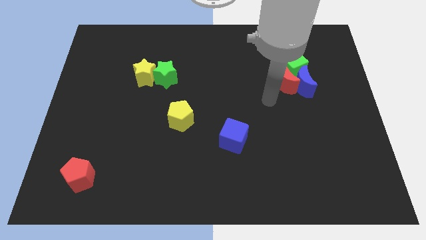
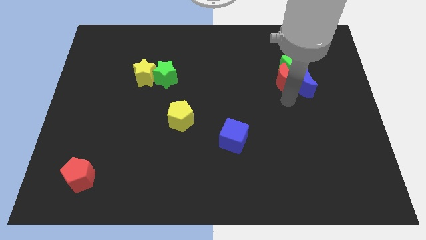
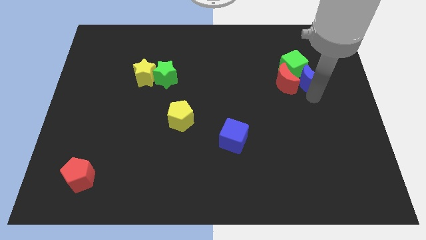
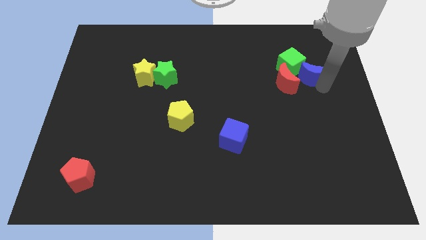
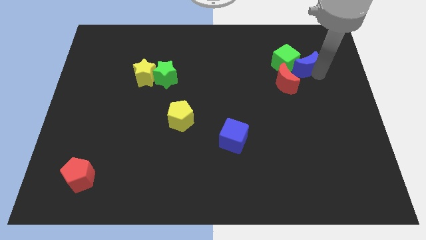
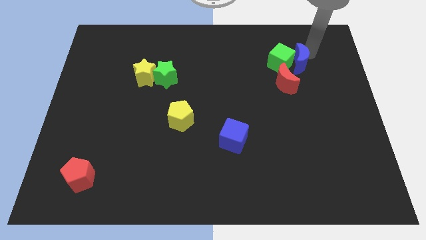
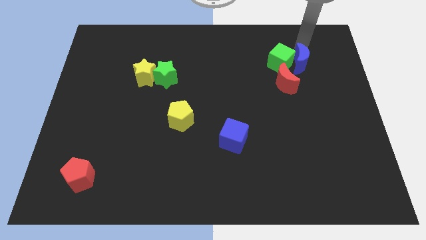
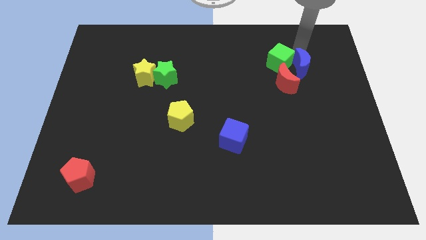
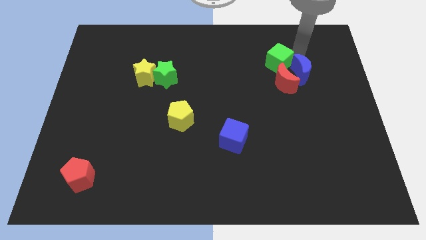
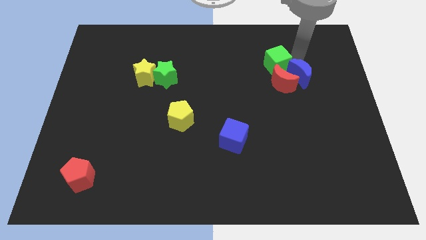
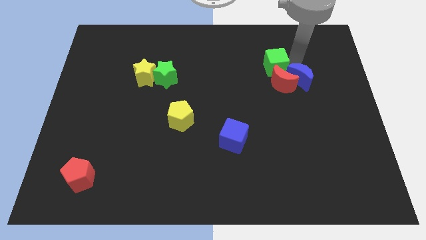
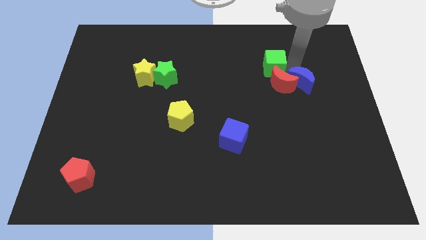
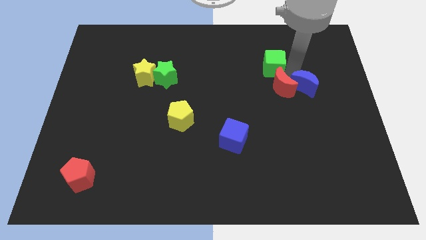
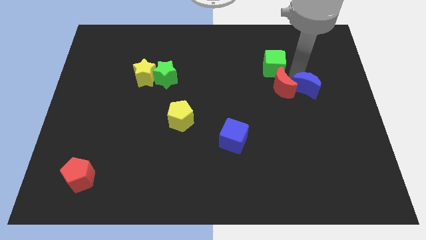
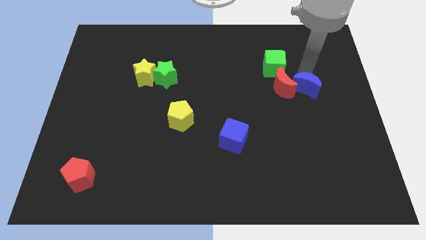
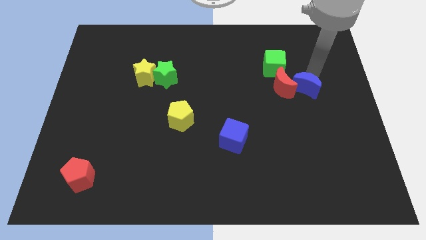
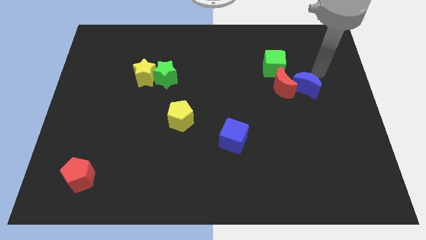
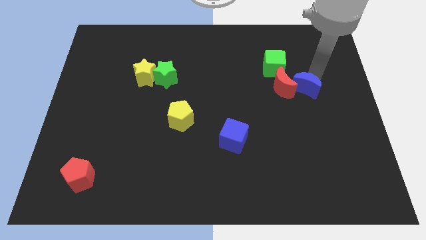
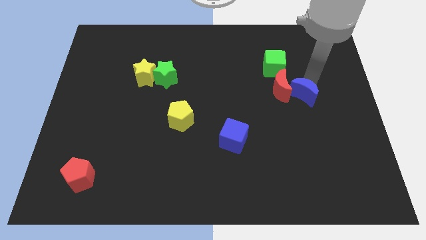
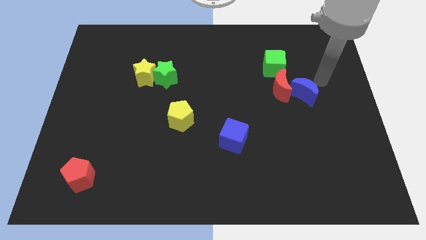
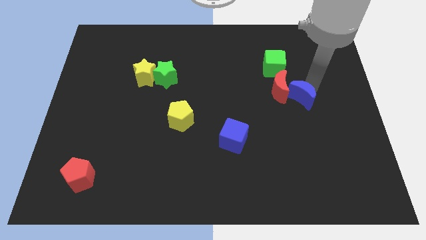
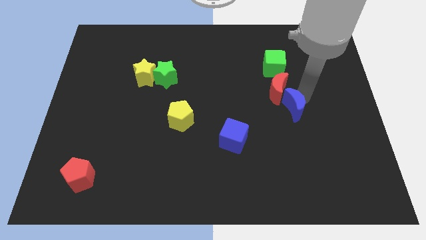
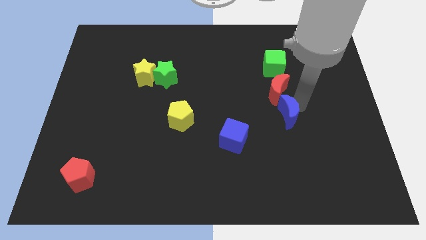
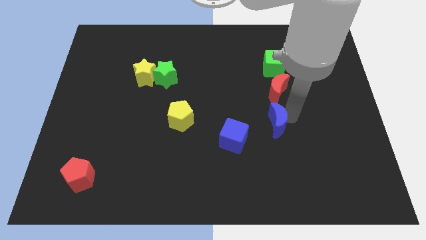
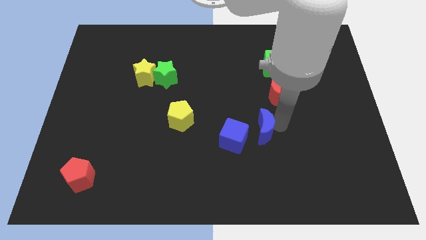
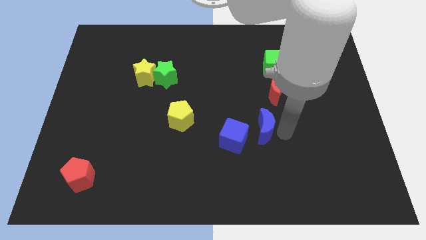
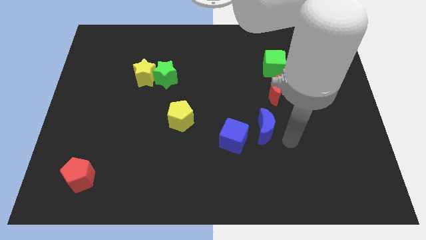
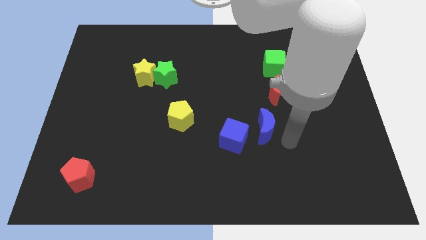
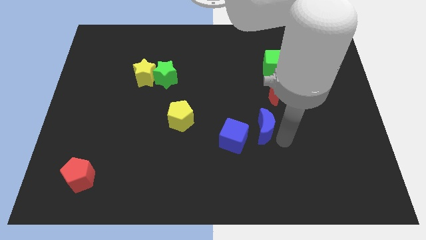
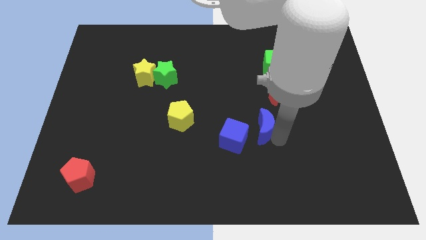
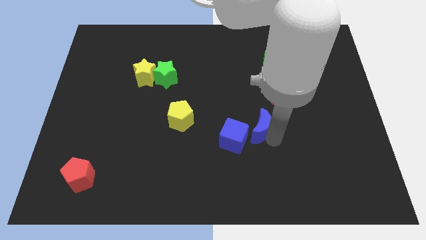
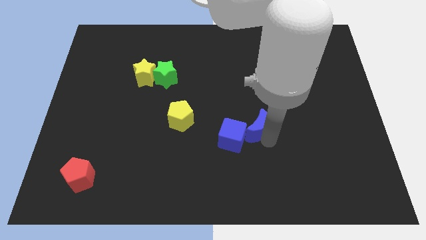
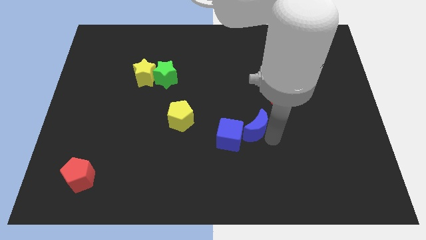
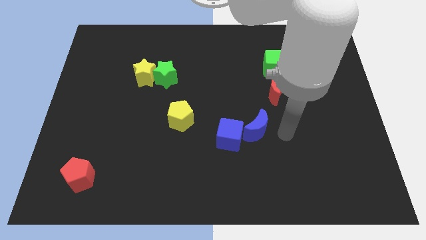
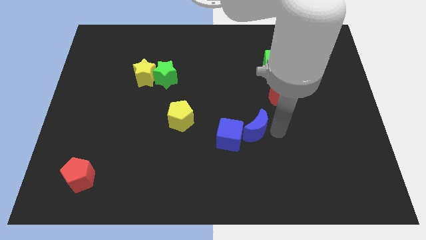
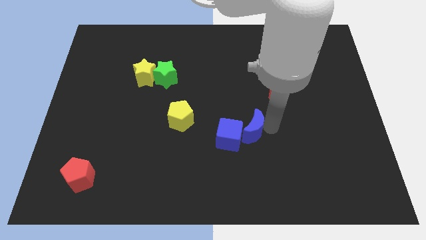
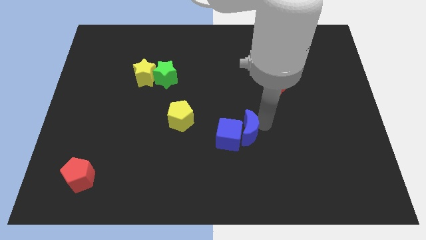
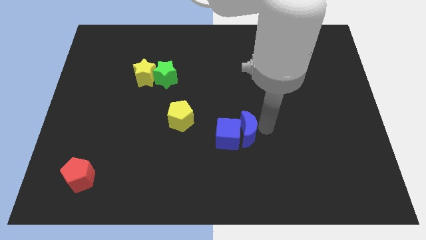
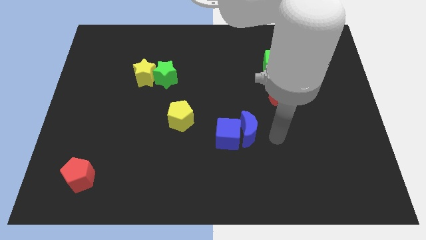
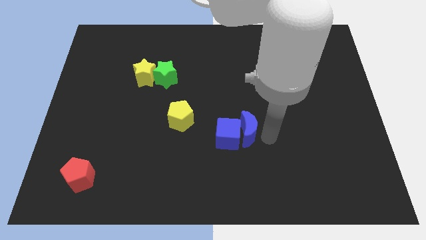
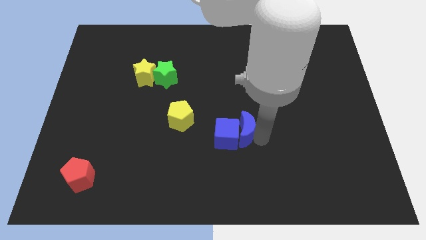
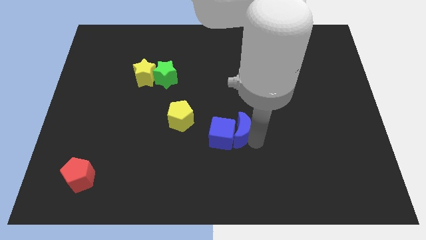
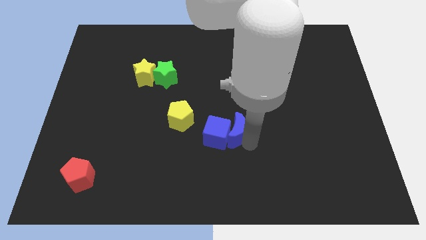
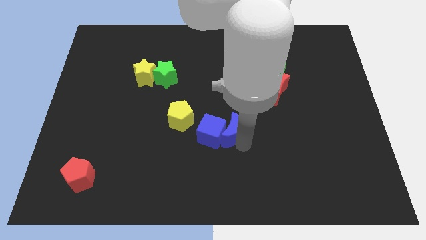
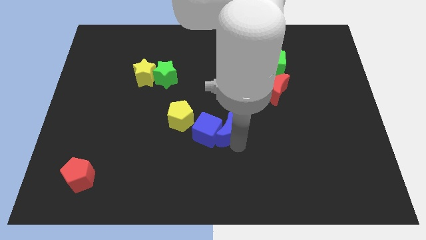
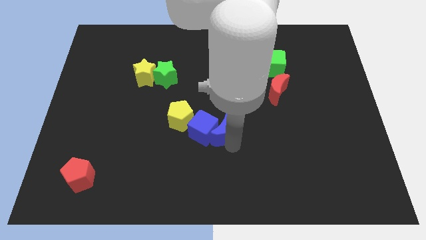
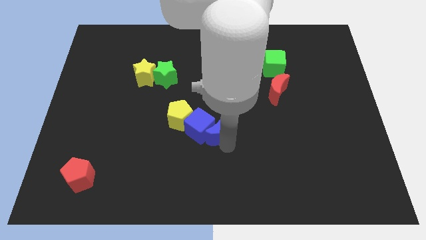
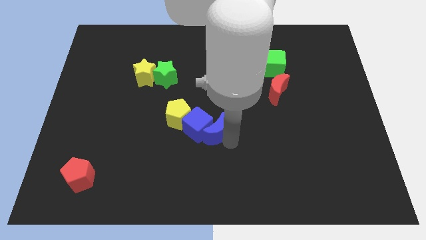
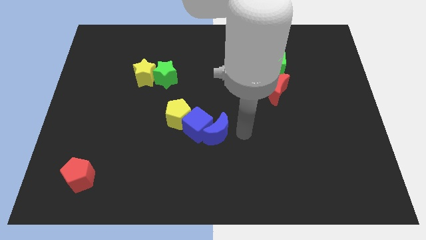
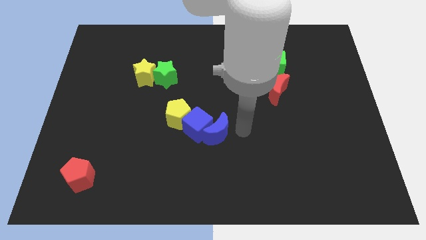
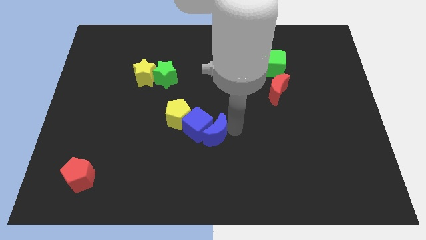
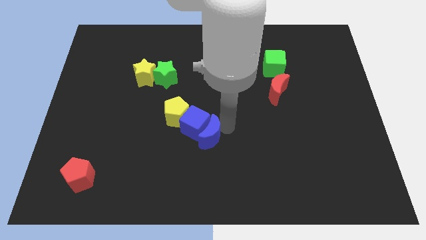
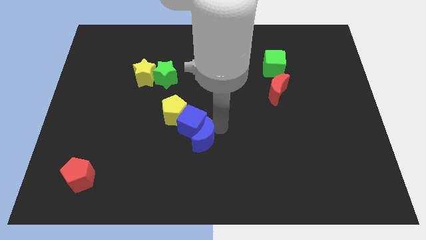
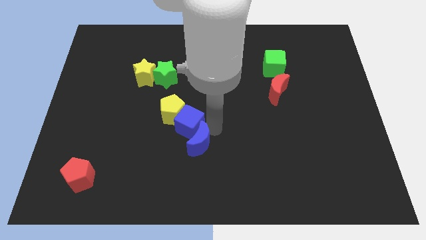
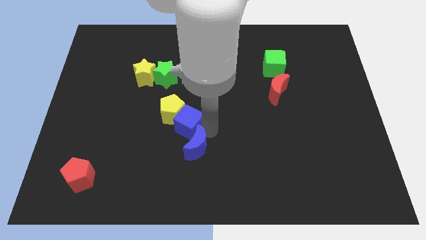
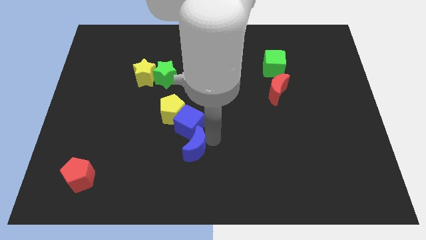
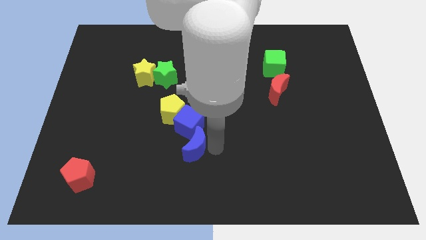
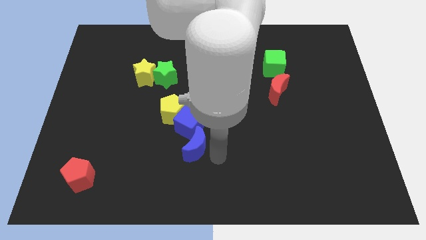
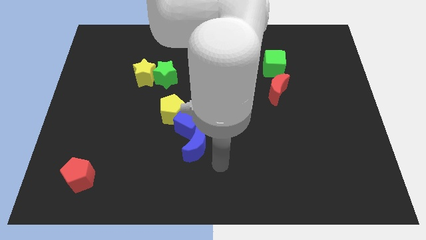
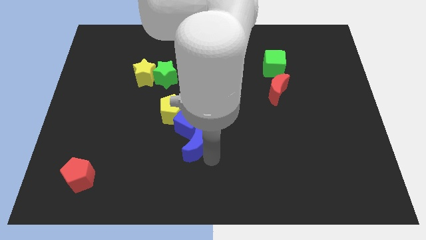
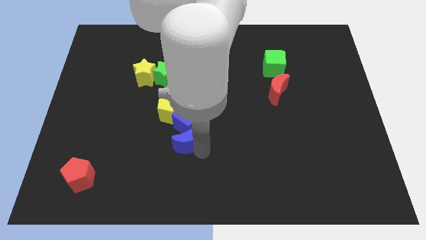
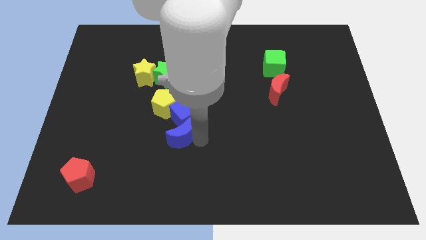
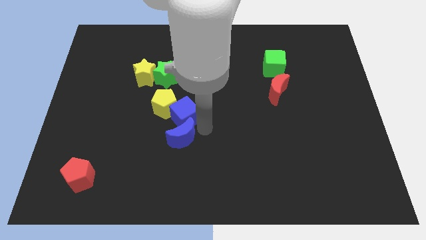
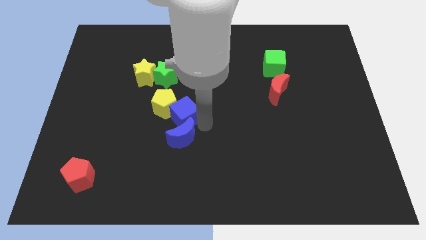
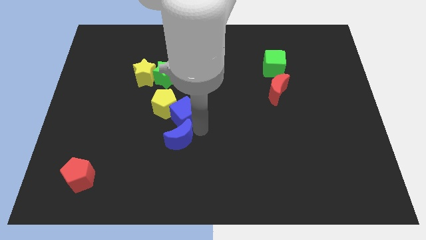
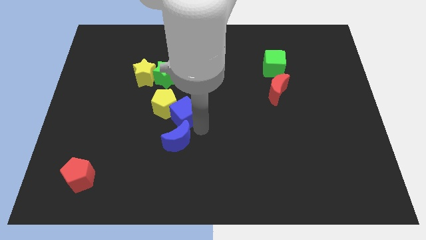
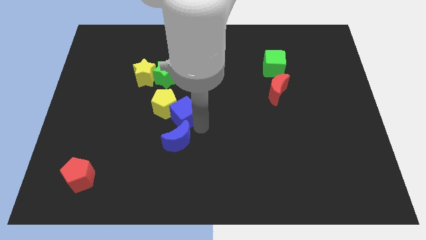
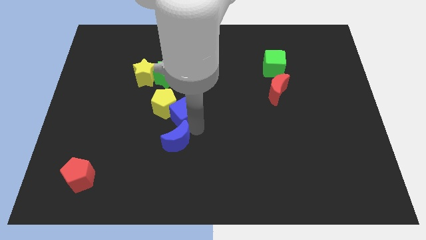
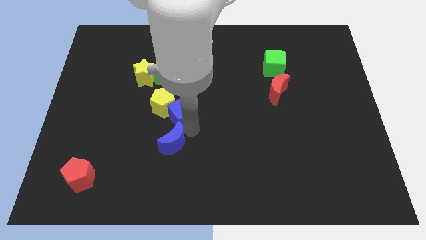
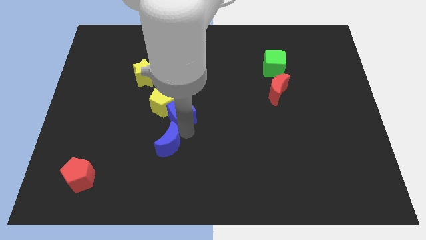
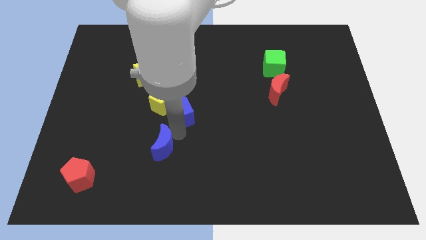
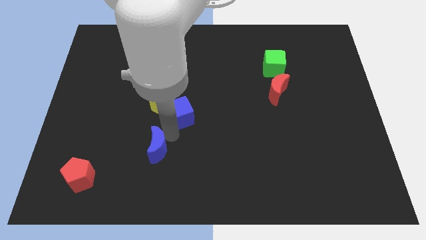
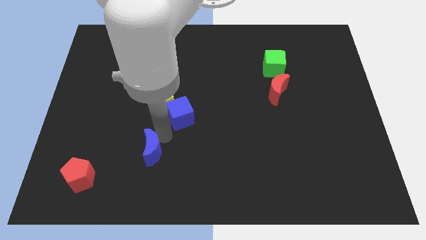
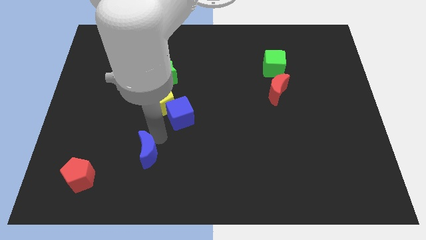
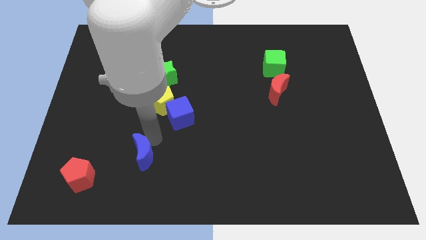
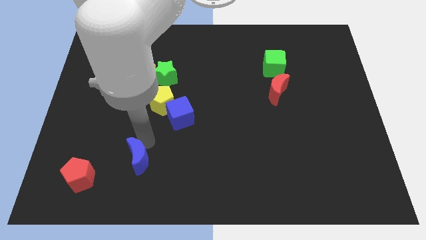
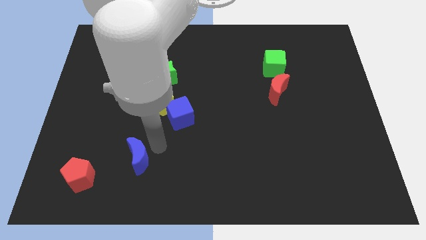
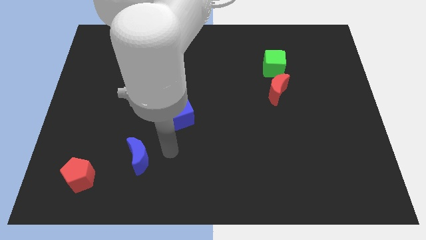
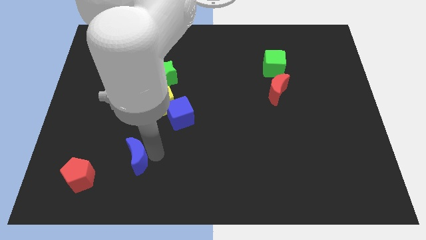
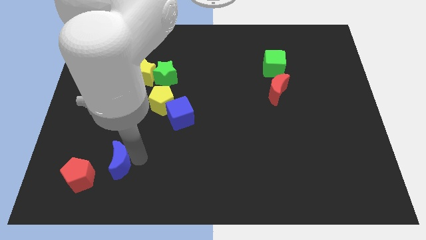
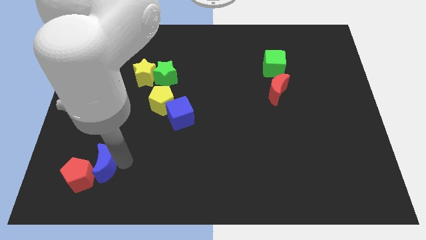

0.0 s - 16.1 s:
move the blue moon next to the red pentagon
